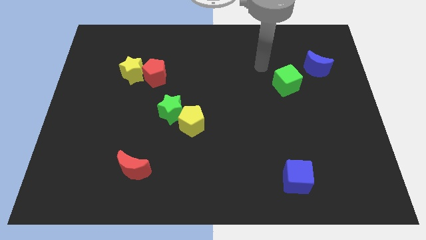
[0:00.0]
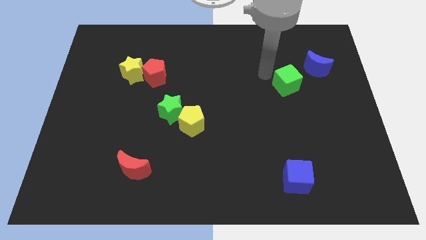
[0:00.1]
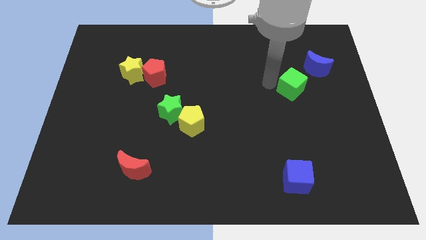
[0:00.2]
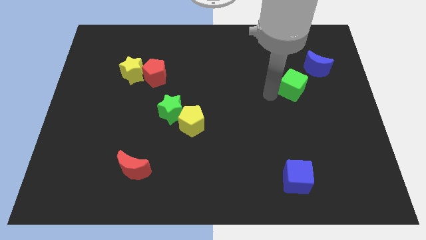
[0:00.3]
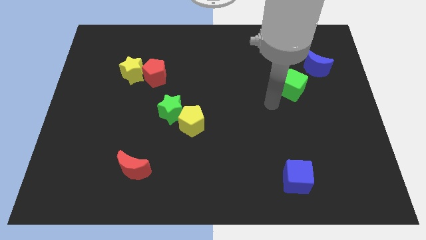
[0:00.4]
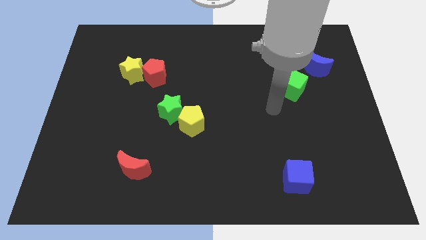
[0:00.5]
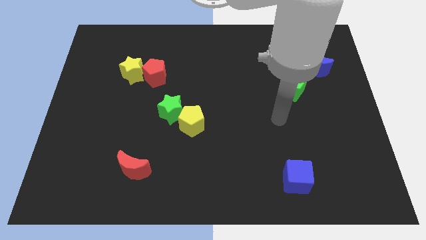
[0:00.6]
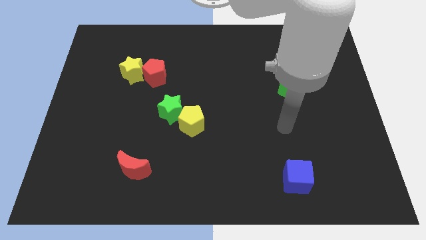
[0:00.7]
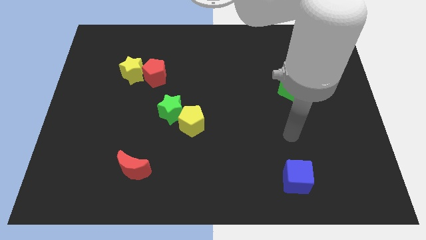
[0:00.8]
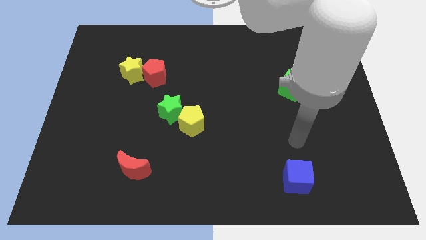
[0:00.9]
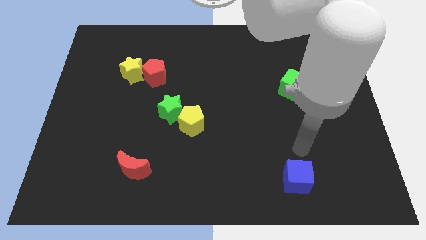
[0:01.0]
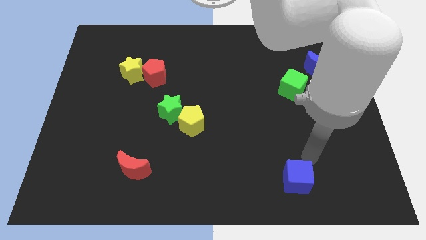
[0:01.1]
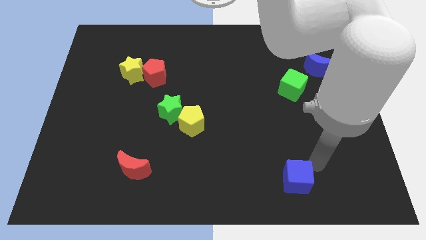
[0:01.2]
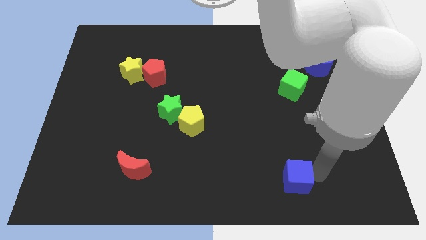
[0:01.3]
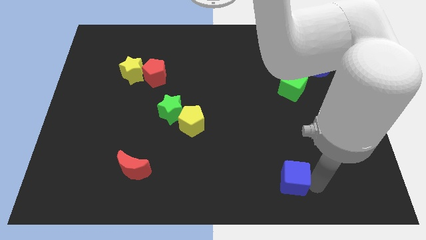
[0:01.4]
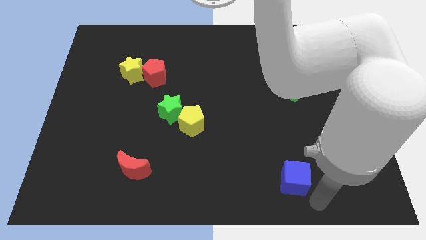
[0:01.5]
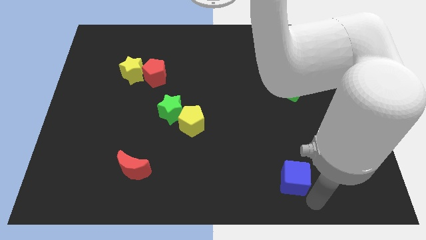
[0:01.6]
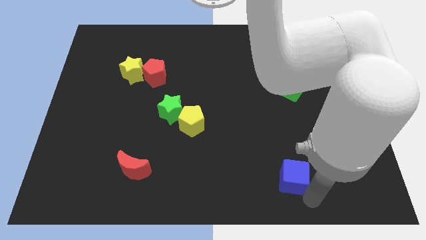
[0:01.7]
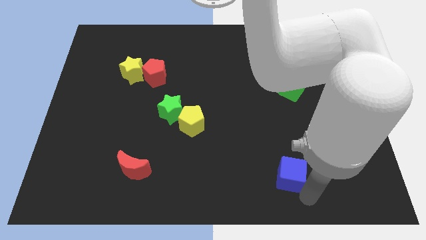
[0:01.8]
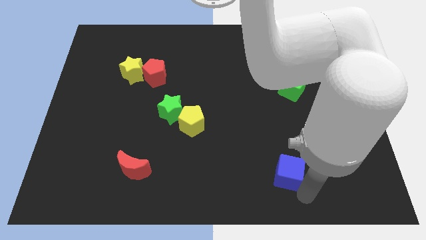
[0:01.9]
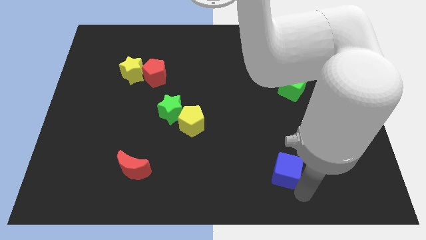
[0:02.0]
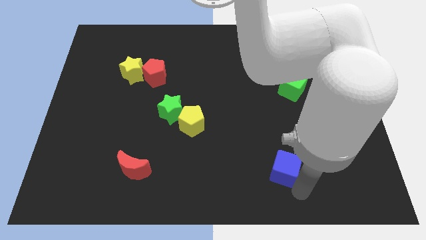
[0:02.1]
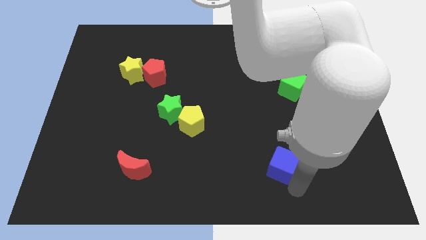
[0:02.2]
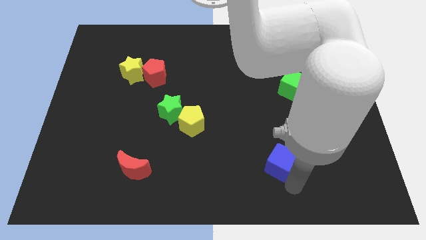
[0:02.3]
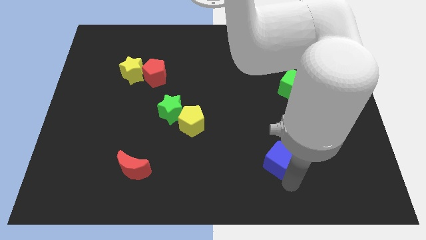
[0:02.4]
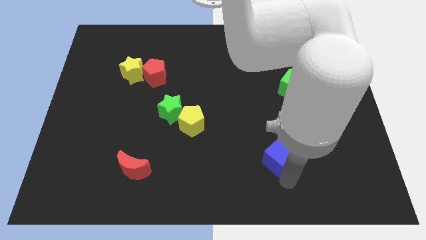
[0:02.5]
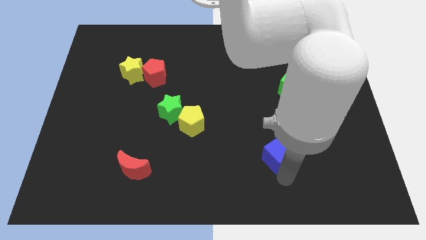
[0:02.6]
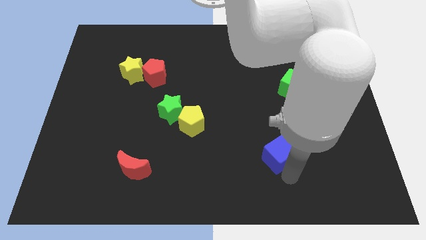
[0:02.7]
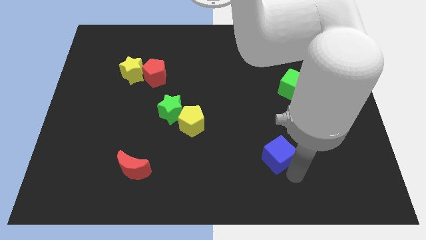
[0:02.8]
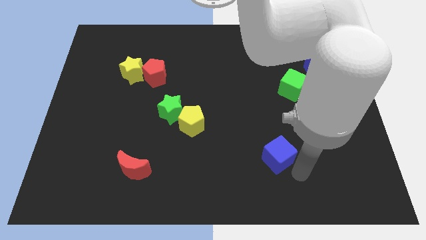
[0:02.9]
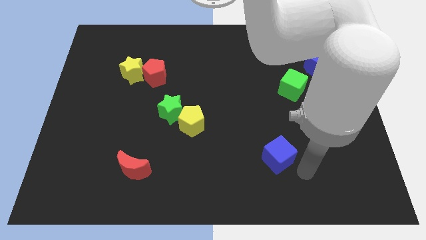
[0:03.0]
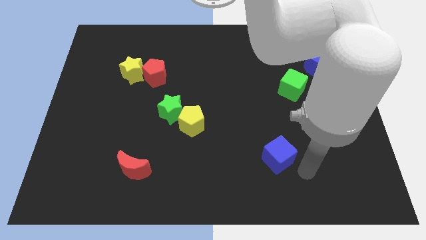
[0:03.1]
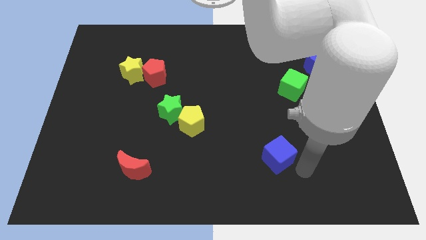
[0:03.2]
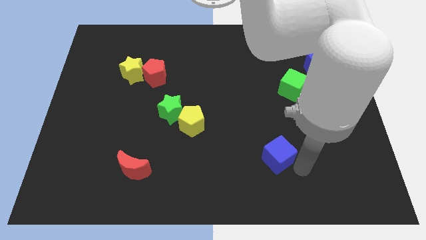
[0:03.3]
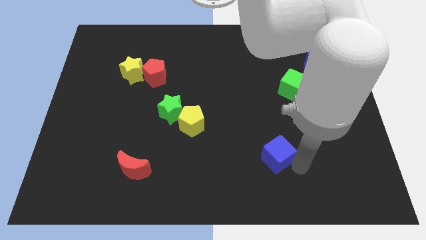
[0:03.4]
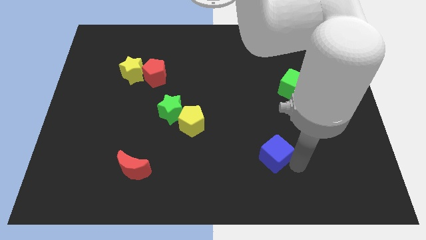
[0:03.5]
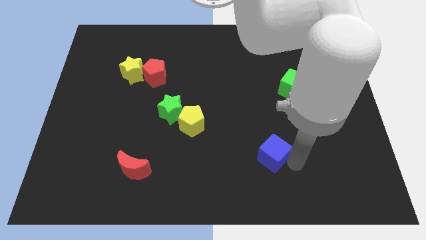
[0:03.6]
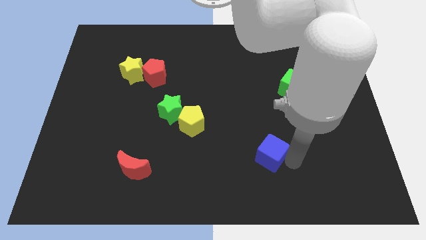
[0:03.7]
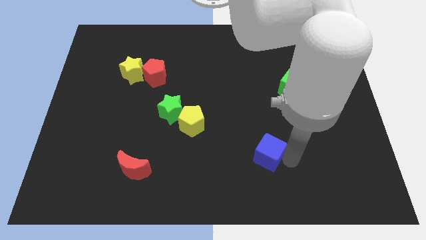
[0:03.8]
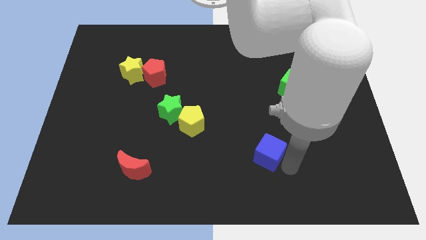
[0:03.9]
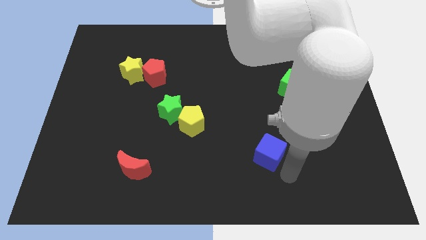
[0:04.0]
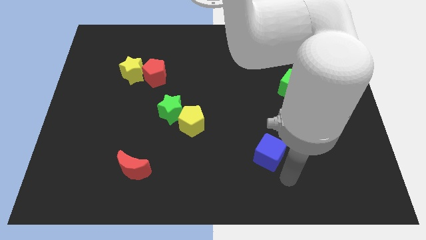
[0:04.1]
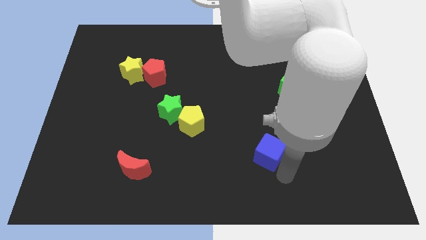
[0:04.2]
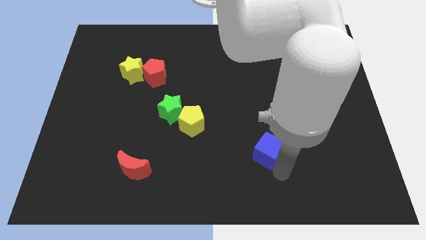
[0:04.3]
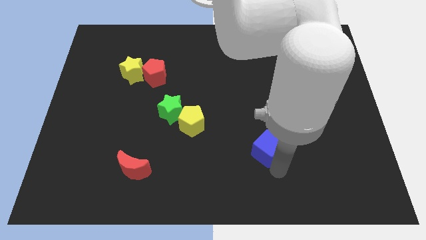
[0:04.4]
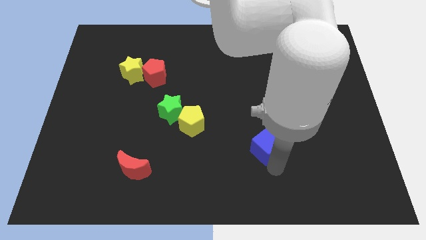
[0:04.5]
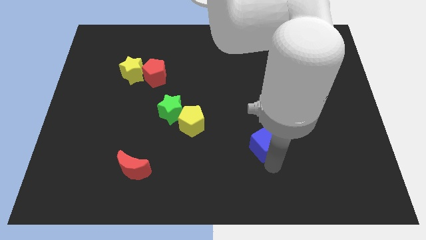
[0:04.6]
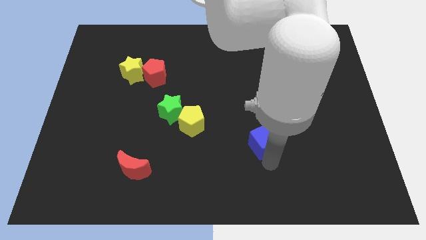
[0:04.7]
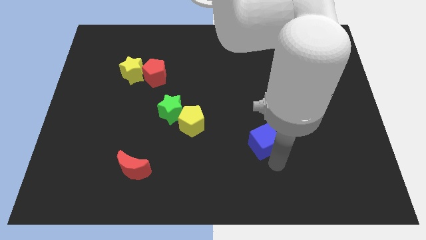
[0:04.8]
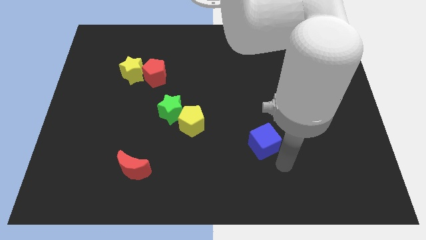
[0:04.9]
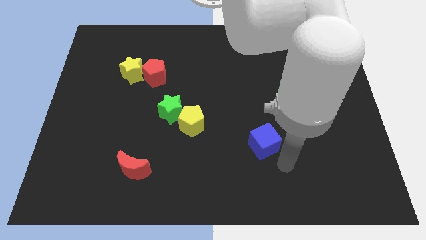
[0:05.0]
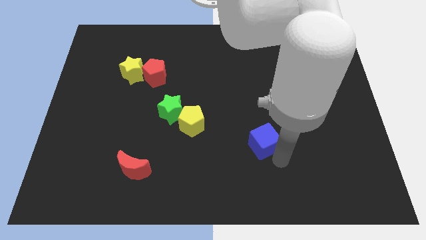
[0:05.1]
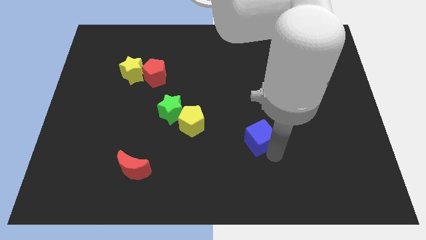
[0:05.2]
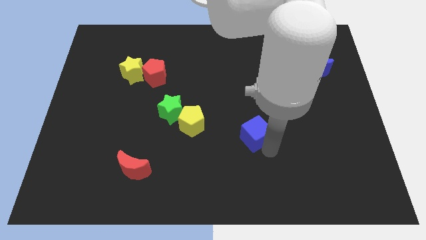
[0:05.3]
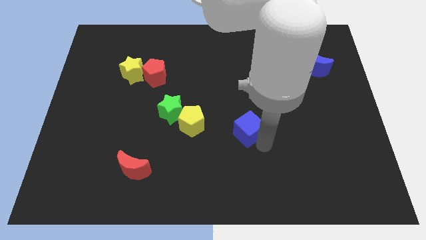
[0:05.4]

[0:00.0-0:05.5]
move the blue cube to the center of the board

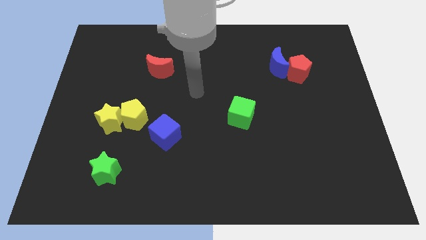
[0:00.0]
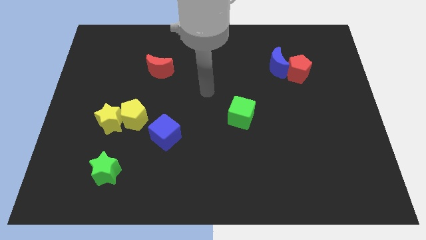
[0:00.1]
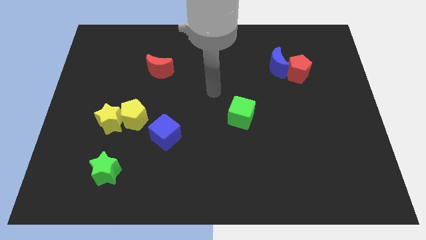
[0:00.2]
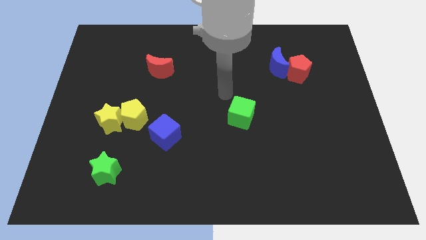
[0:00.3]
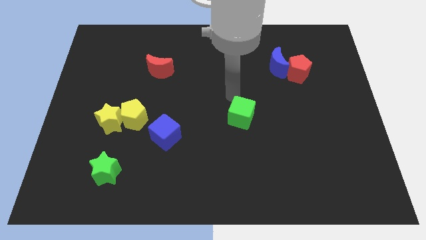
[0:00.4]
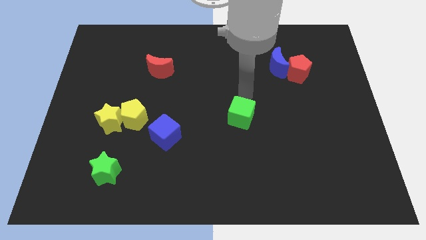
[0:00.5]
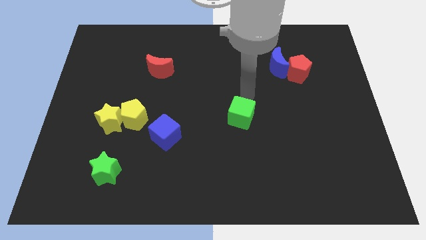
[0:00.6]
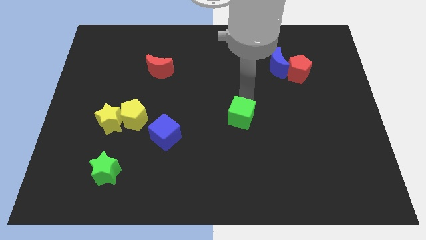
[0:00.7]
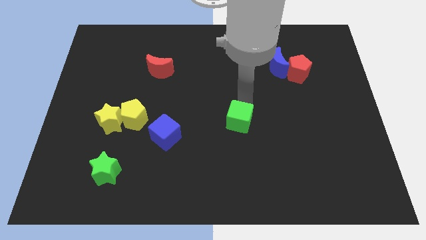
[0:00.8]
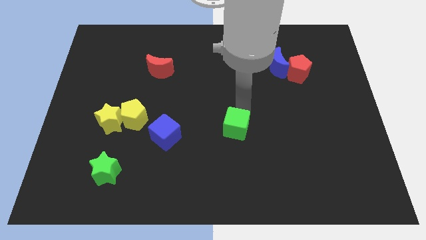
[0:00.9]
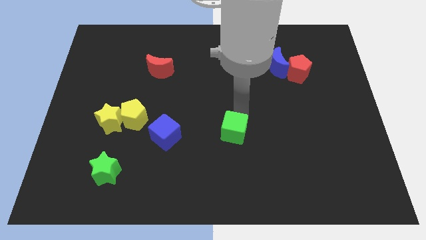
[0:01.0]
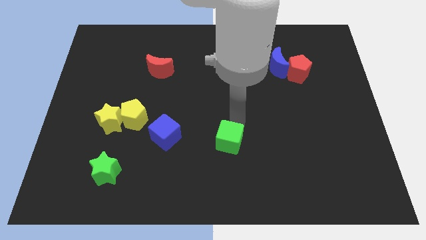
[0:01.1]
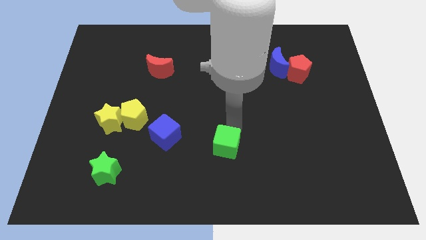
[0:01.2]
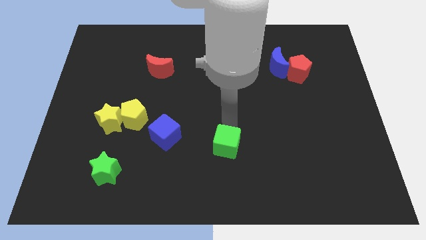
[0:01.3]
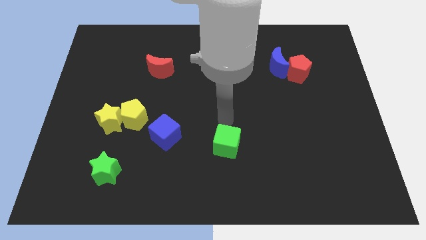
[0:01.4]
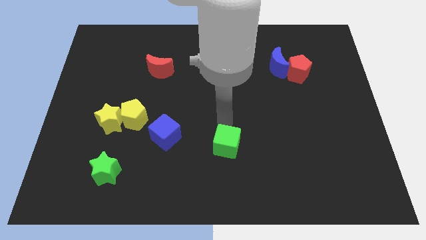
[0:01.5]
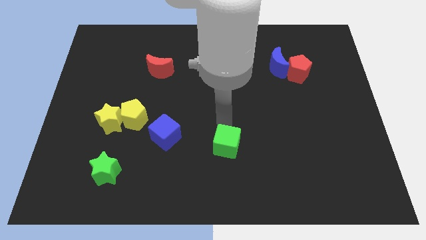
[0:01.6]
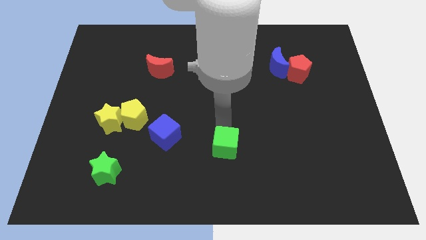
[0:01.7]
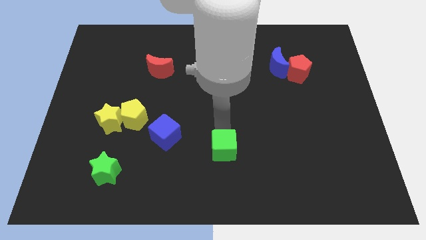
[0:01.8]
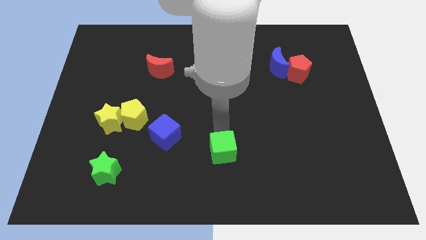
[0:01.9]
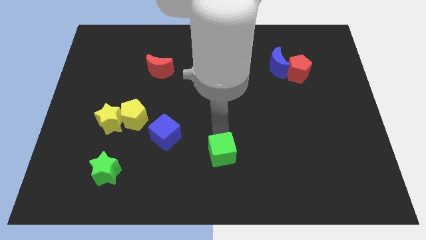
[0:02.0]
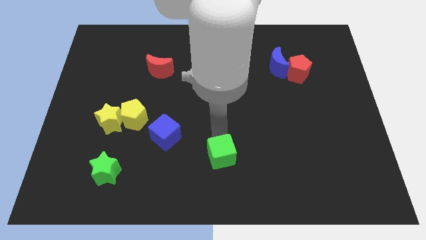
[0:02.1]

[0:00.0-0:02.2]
put the green cube to the bottom side
